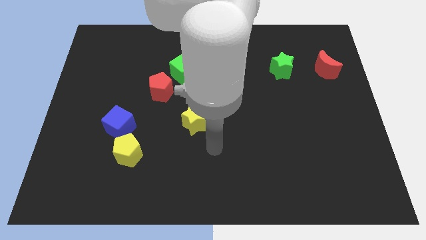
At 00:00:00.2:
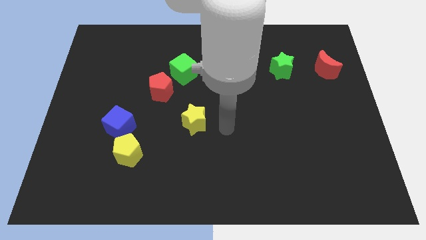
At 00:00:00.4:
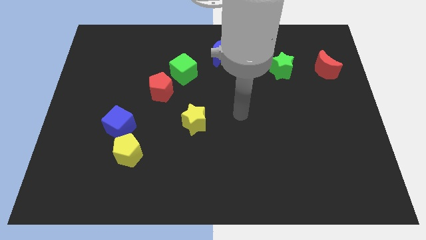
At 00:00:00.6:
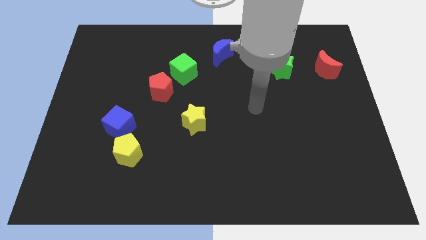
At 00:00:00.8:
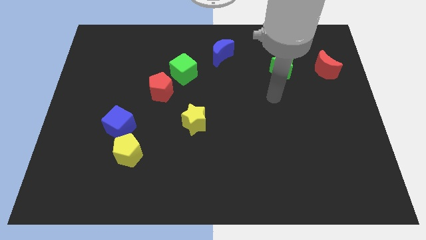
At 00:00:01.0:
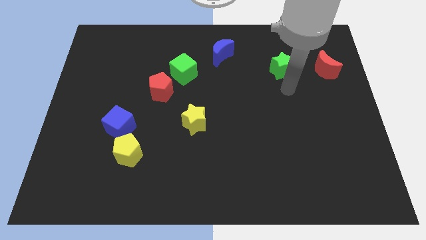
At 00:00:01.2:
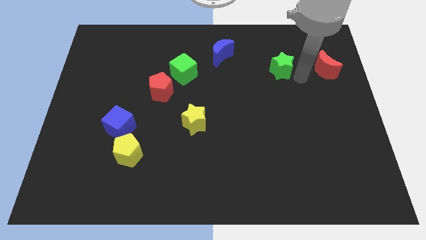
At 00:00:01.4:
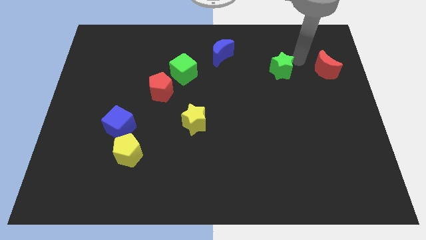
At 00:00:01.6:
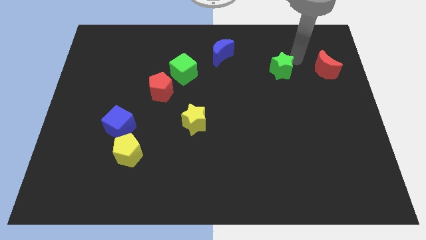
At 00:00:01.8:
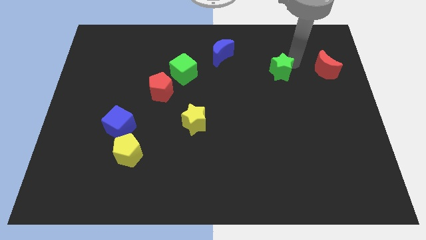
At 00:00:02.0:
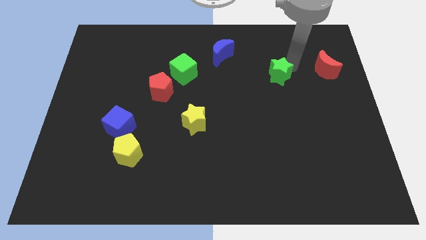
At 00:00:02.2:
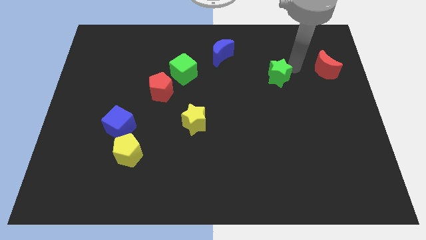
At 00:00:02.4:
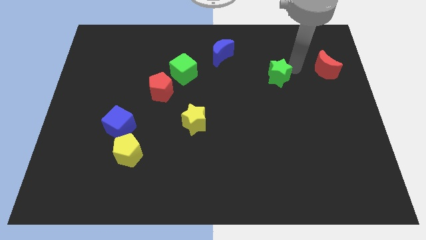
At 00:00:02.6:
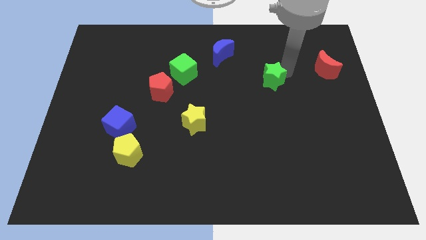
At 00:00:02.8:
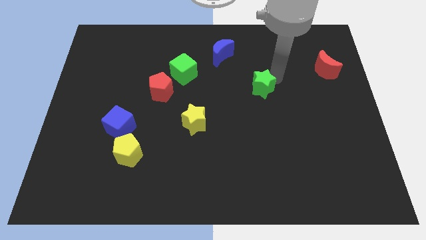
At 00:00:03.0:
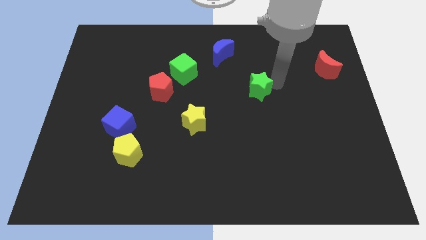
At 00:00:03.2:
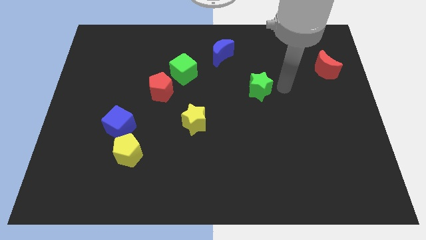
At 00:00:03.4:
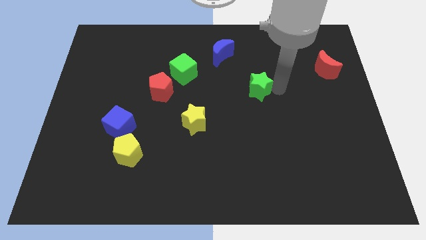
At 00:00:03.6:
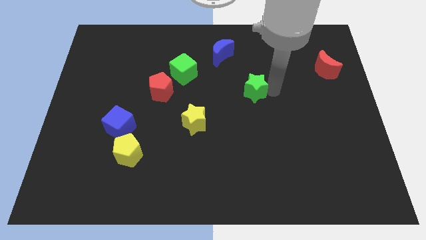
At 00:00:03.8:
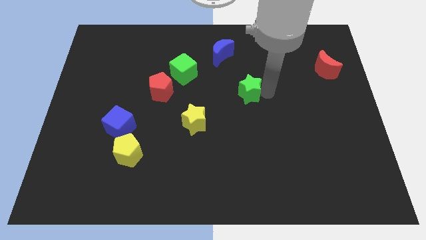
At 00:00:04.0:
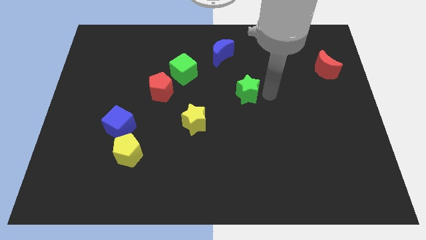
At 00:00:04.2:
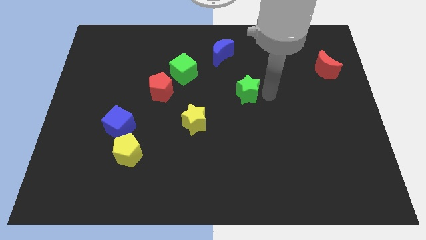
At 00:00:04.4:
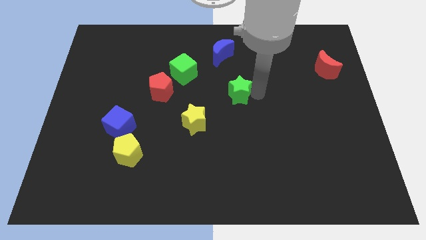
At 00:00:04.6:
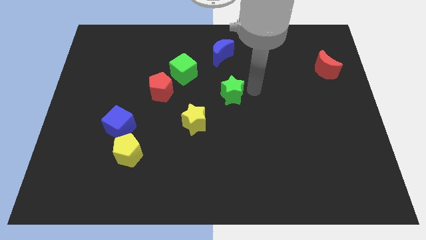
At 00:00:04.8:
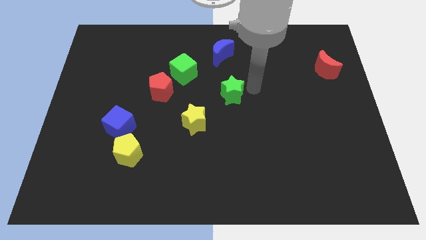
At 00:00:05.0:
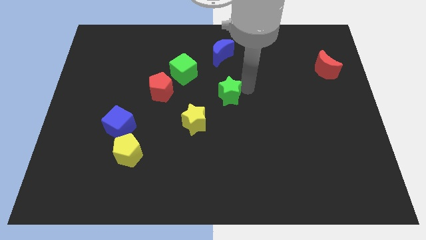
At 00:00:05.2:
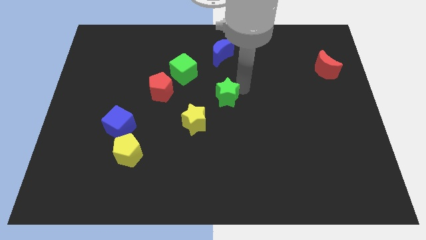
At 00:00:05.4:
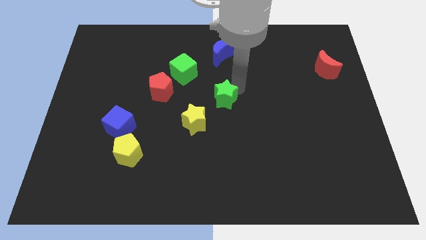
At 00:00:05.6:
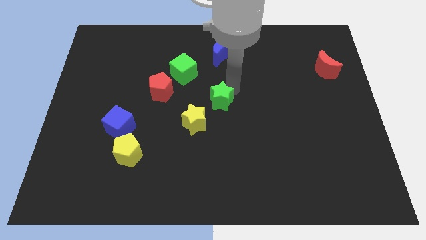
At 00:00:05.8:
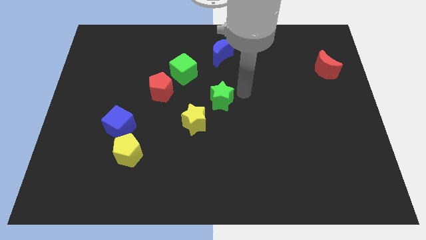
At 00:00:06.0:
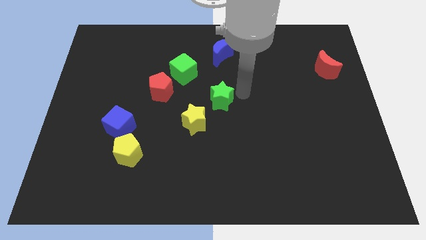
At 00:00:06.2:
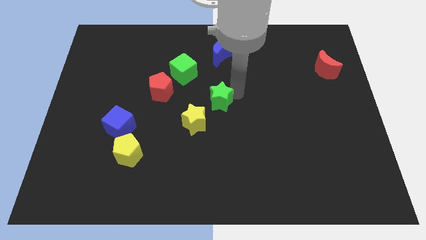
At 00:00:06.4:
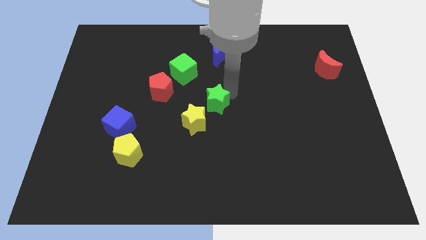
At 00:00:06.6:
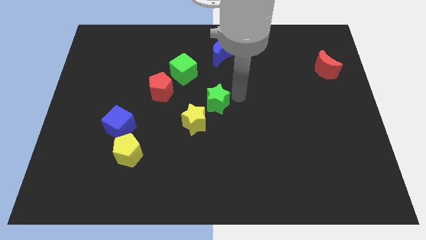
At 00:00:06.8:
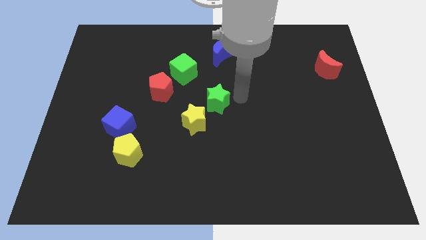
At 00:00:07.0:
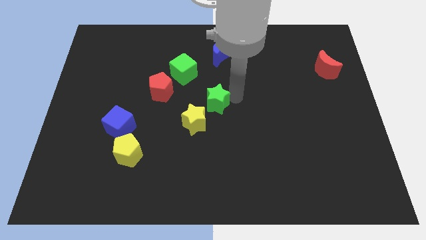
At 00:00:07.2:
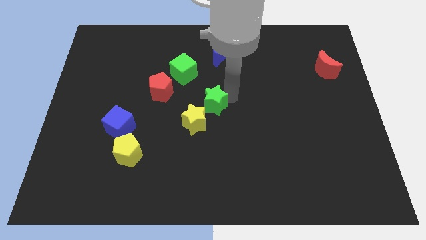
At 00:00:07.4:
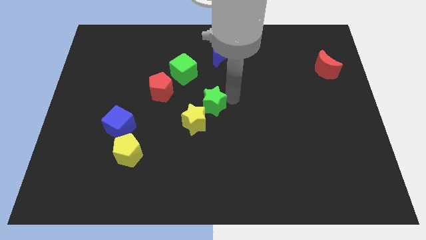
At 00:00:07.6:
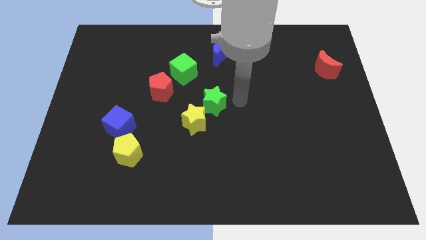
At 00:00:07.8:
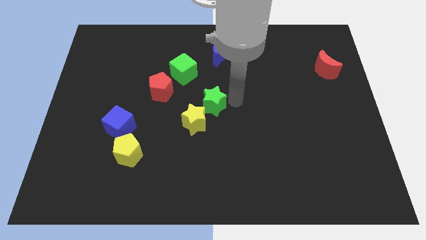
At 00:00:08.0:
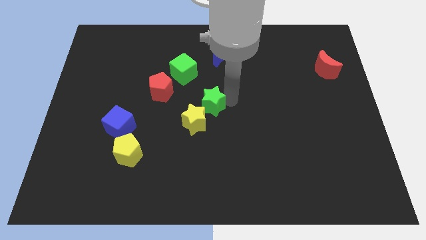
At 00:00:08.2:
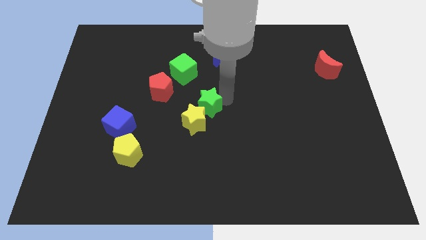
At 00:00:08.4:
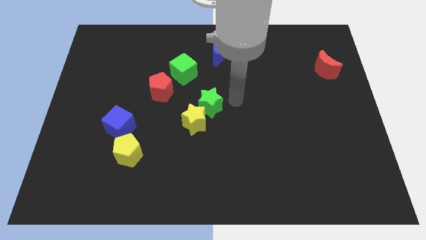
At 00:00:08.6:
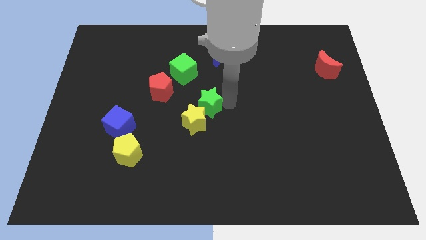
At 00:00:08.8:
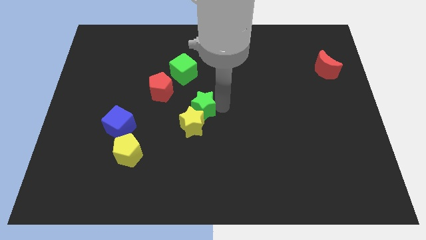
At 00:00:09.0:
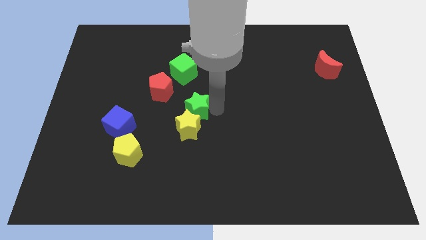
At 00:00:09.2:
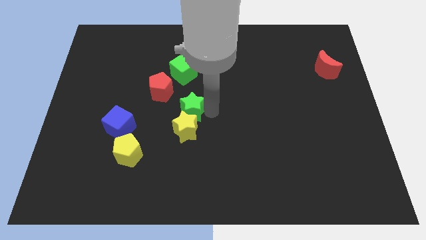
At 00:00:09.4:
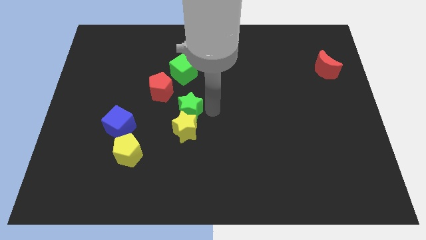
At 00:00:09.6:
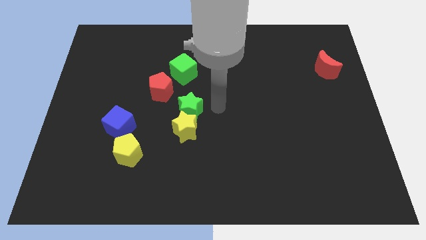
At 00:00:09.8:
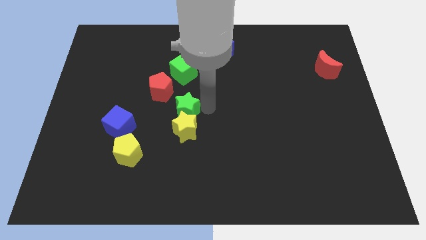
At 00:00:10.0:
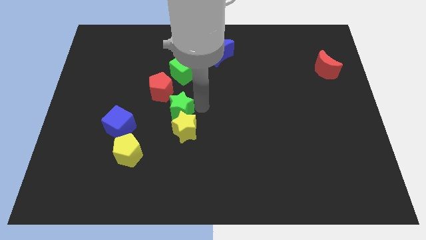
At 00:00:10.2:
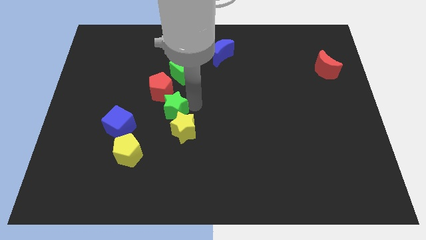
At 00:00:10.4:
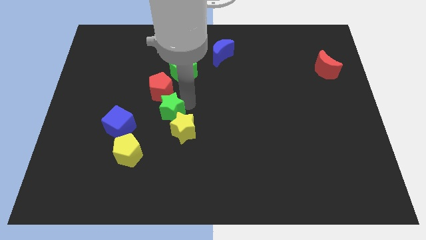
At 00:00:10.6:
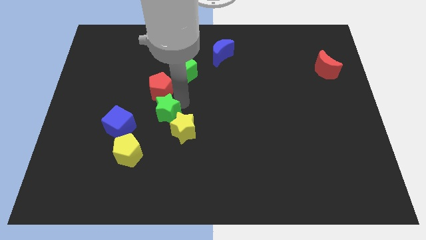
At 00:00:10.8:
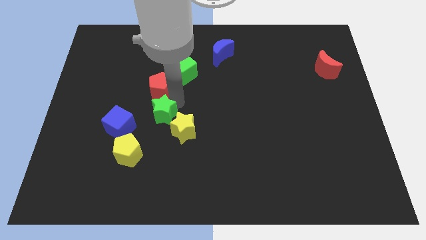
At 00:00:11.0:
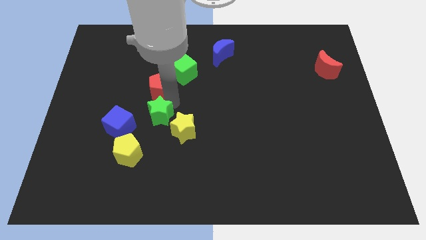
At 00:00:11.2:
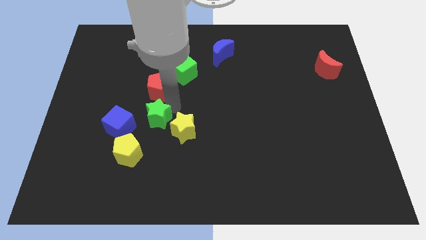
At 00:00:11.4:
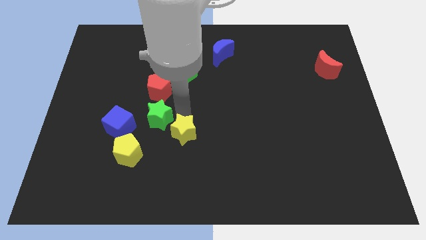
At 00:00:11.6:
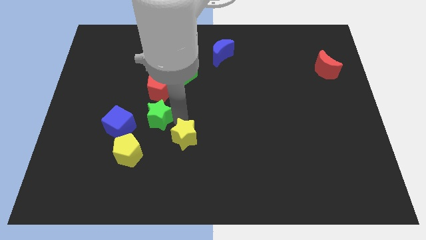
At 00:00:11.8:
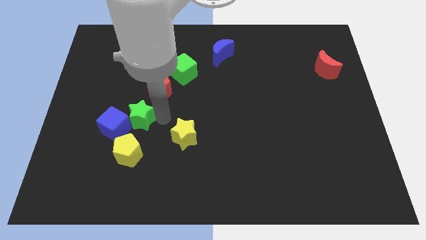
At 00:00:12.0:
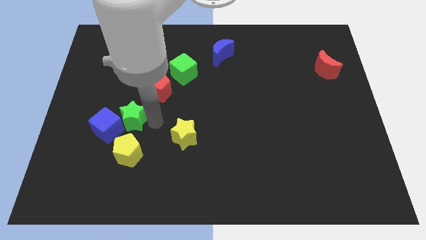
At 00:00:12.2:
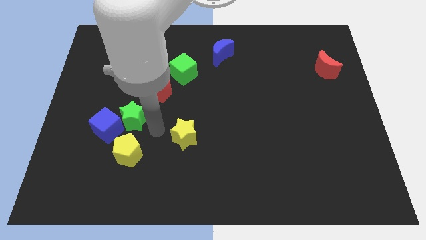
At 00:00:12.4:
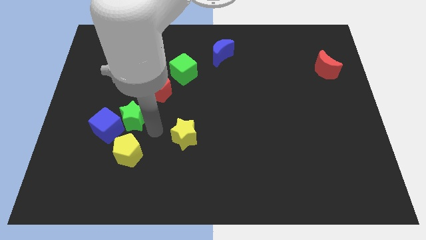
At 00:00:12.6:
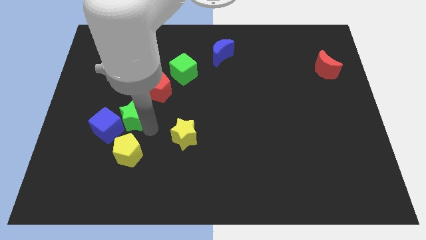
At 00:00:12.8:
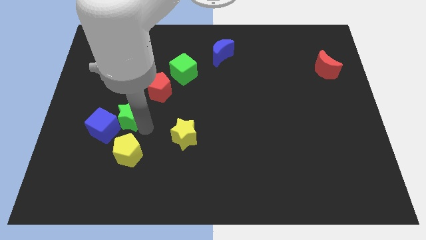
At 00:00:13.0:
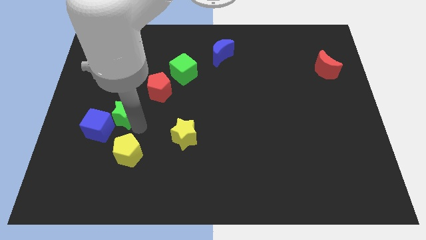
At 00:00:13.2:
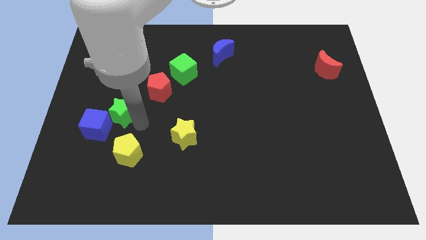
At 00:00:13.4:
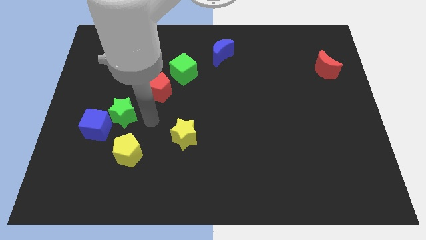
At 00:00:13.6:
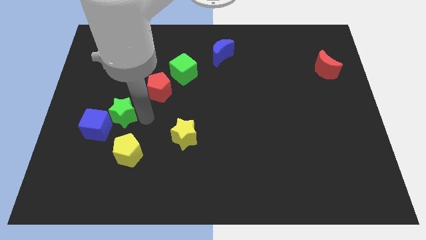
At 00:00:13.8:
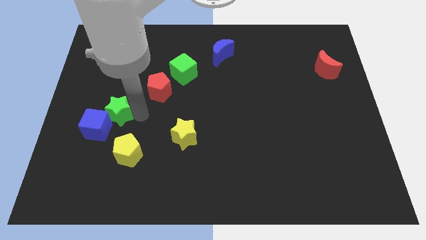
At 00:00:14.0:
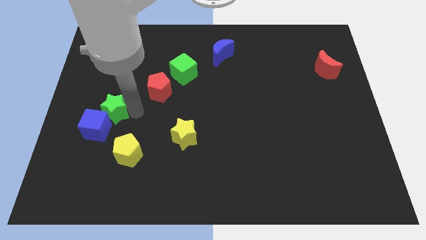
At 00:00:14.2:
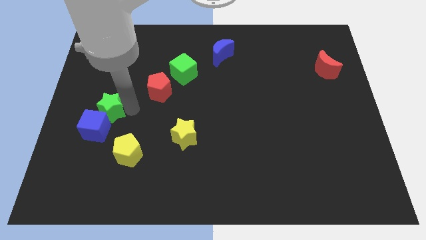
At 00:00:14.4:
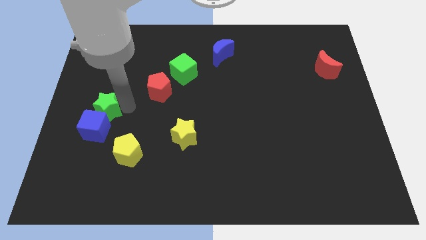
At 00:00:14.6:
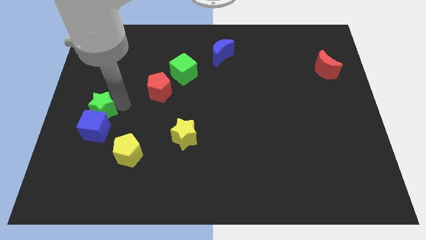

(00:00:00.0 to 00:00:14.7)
push the green star to the left side of the board
